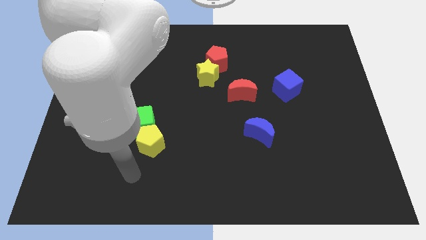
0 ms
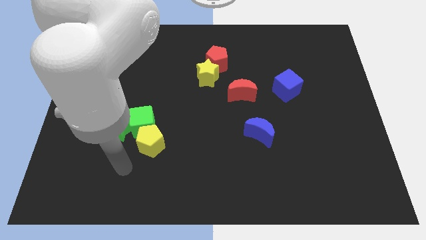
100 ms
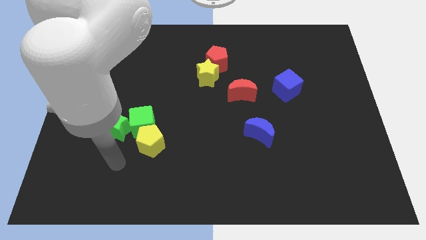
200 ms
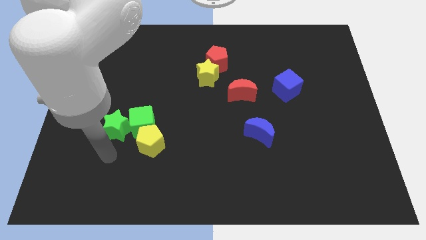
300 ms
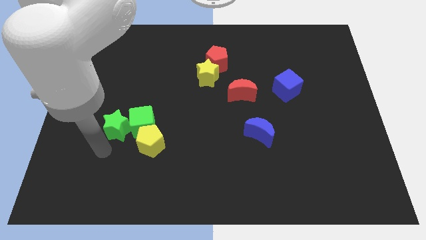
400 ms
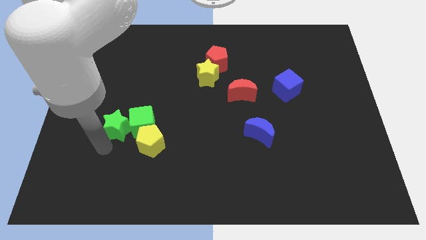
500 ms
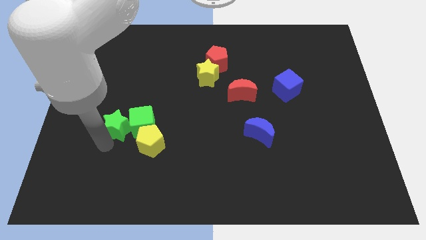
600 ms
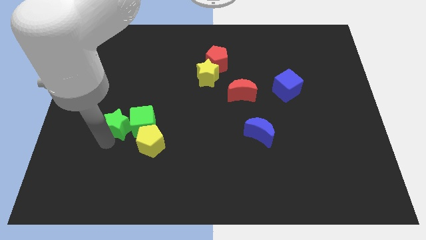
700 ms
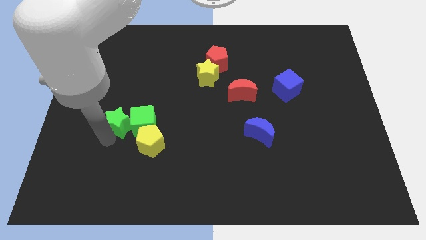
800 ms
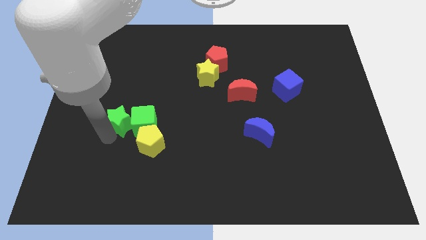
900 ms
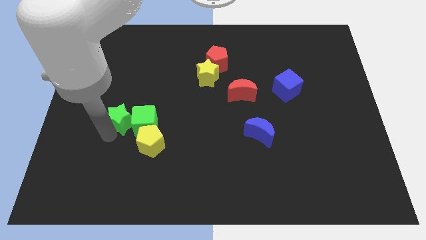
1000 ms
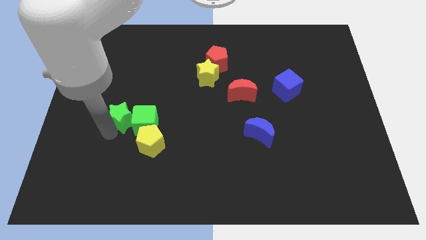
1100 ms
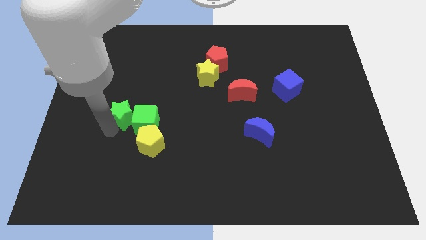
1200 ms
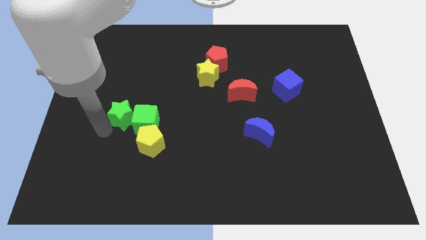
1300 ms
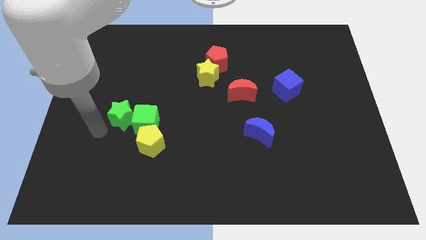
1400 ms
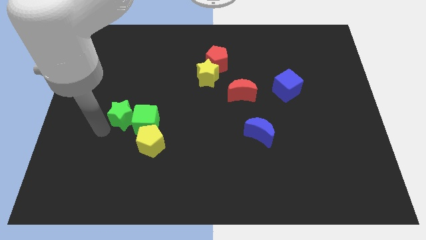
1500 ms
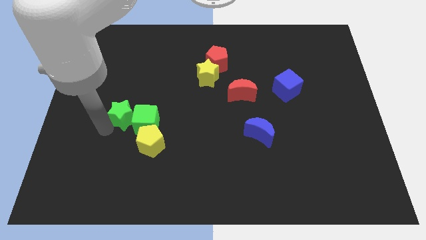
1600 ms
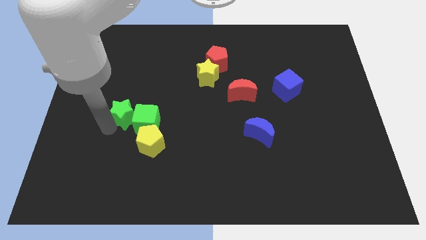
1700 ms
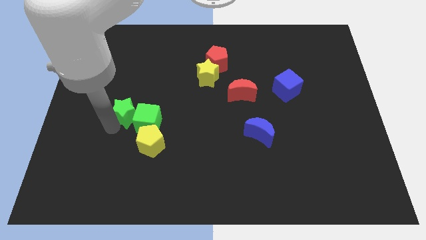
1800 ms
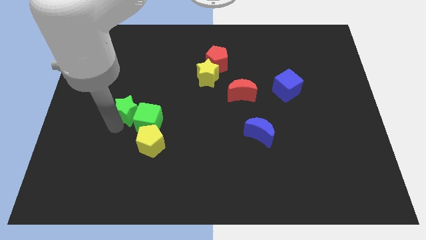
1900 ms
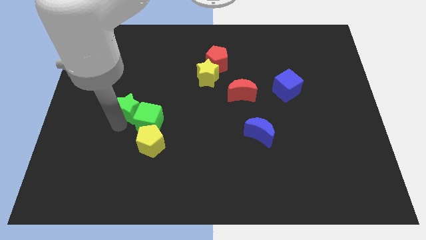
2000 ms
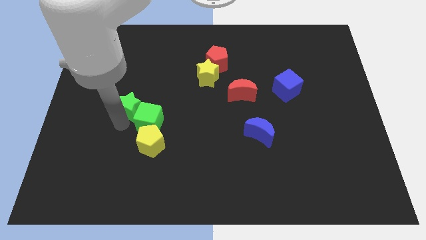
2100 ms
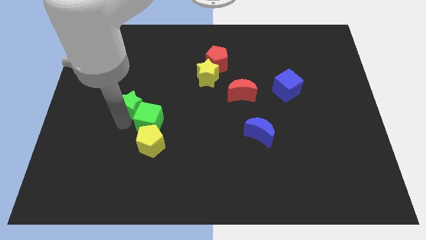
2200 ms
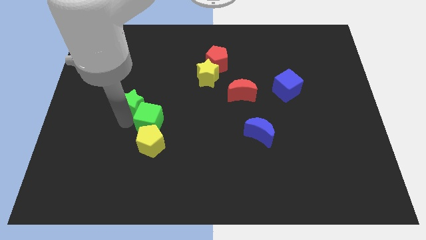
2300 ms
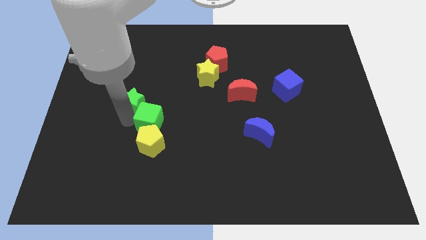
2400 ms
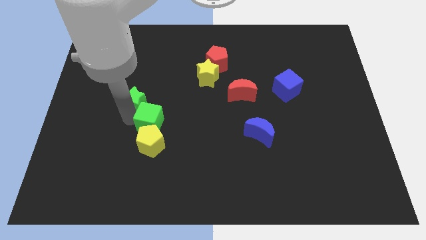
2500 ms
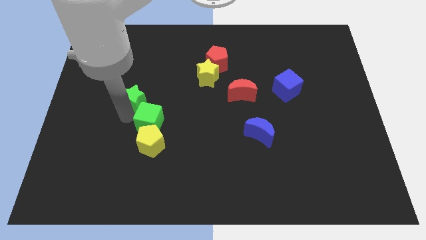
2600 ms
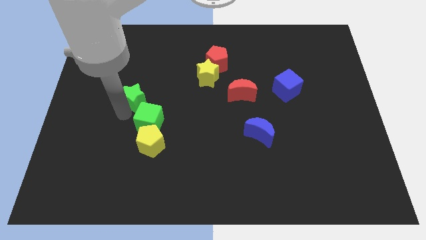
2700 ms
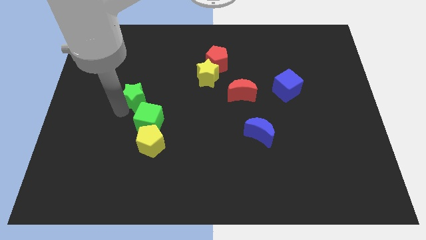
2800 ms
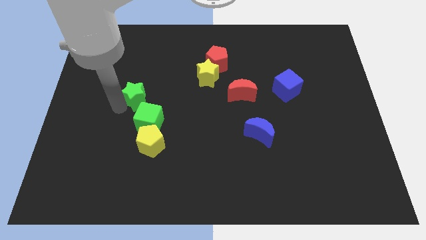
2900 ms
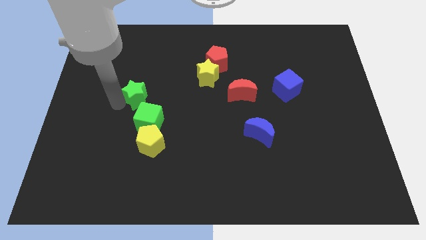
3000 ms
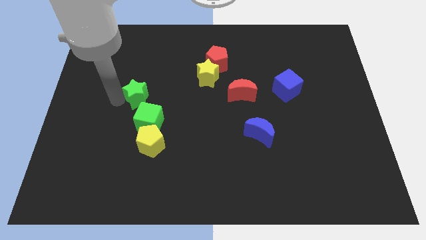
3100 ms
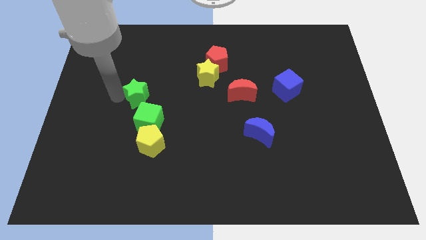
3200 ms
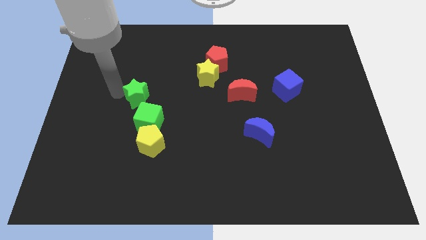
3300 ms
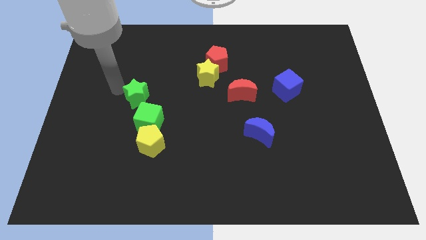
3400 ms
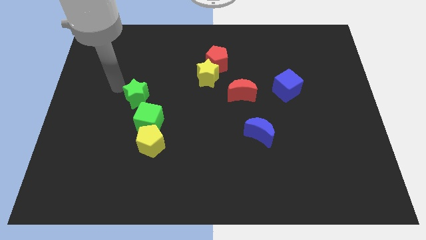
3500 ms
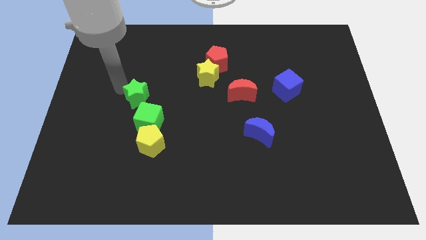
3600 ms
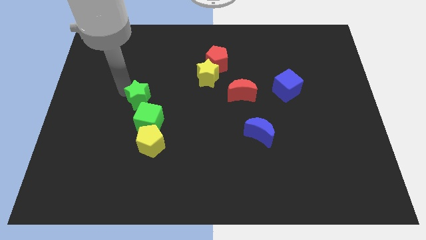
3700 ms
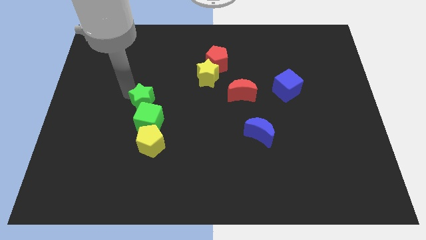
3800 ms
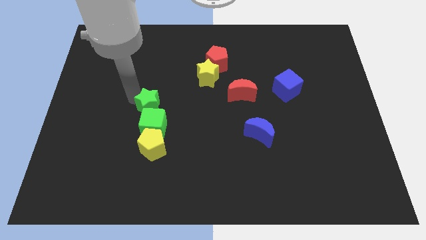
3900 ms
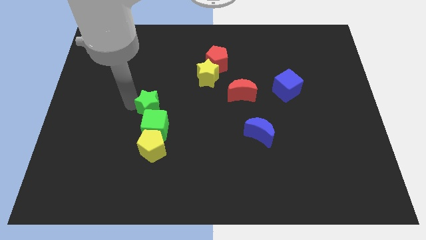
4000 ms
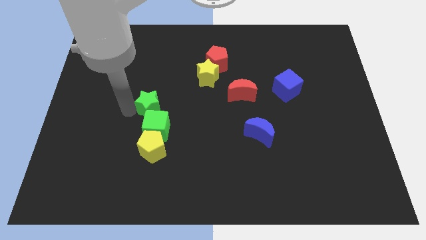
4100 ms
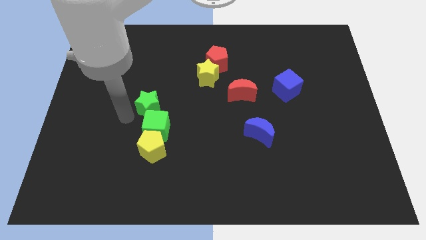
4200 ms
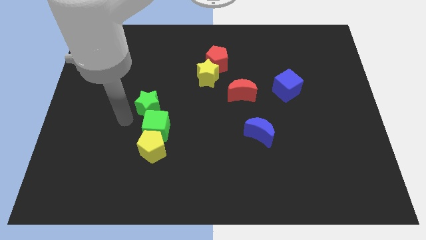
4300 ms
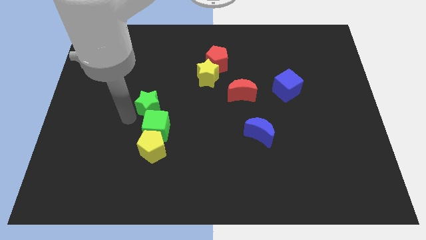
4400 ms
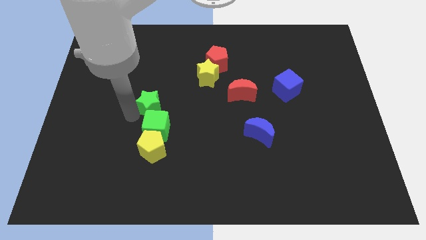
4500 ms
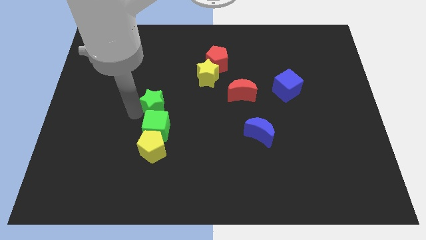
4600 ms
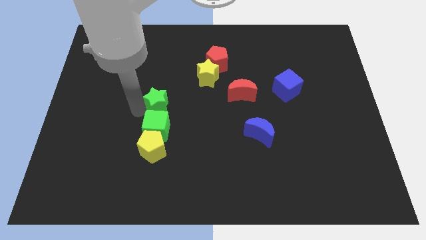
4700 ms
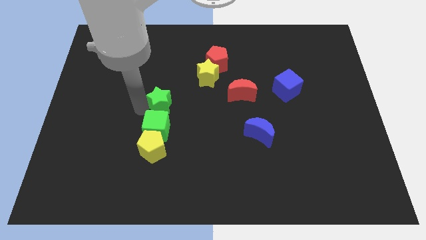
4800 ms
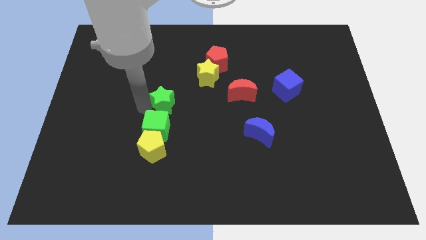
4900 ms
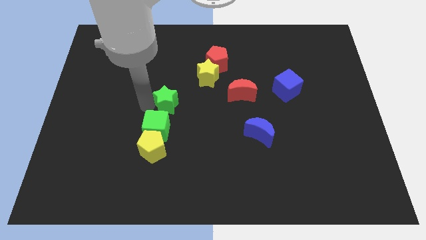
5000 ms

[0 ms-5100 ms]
move the green star to the bottom left of the yellow star

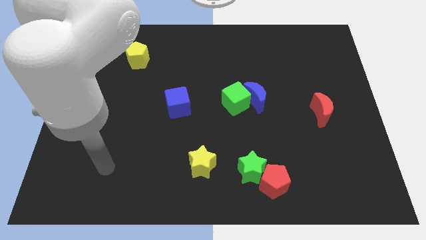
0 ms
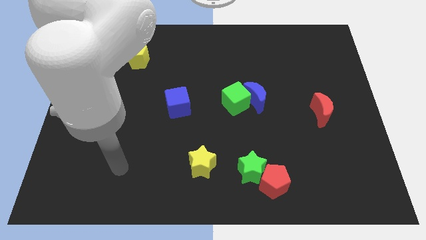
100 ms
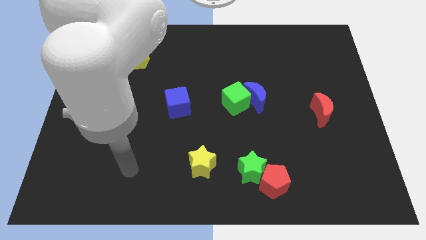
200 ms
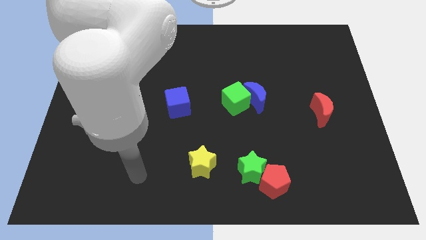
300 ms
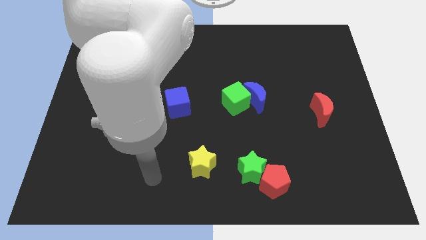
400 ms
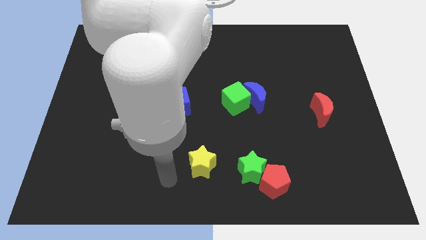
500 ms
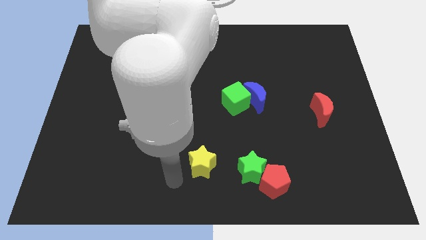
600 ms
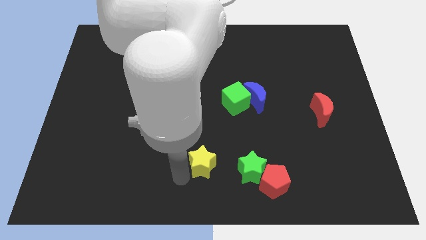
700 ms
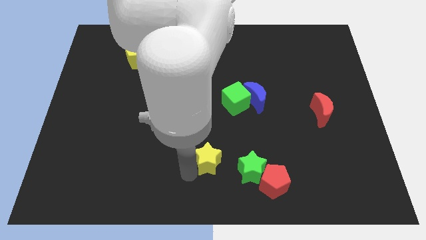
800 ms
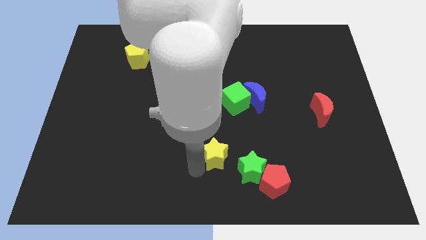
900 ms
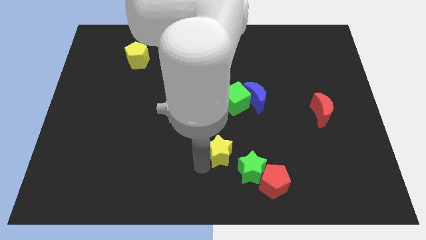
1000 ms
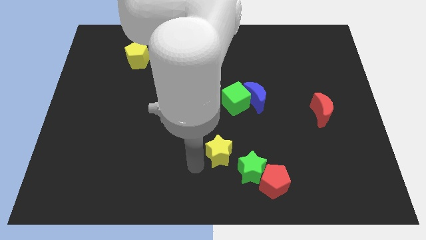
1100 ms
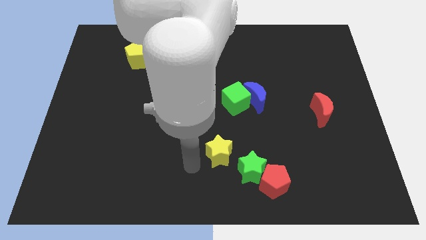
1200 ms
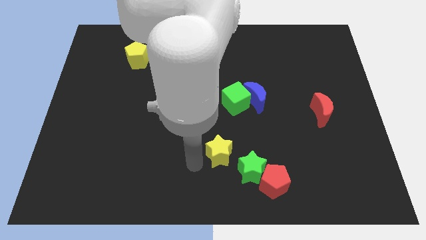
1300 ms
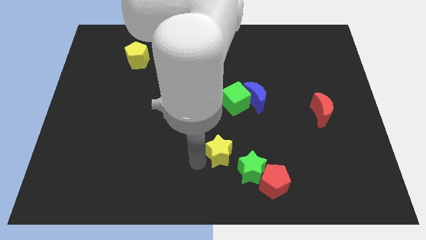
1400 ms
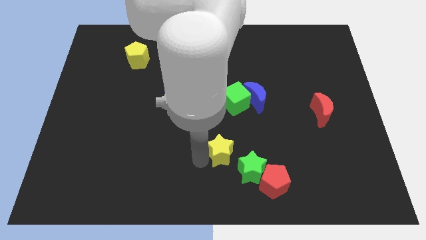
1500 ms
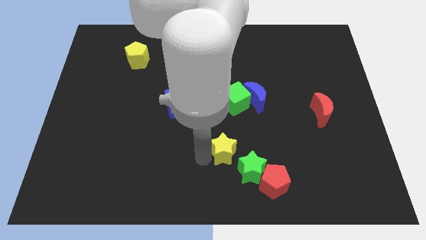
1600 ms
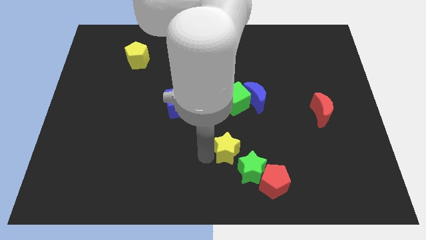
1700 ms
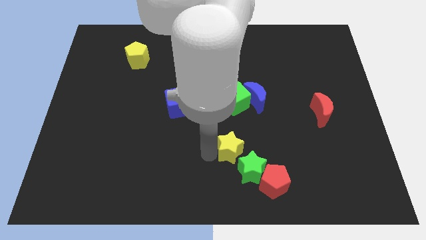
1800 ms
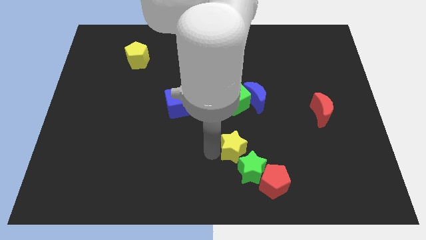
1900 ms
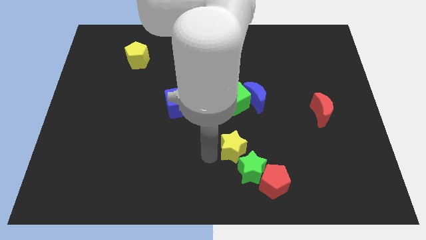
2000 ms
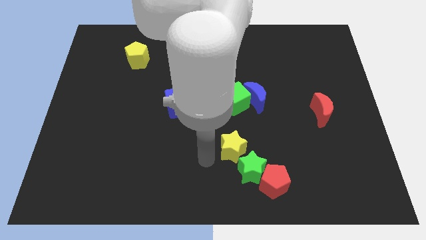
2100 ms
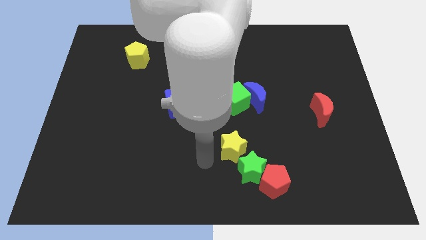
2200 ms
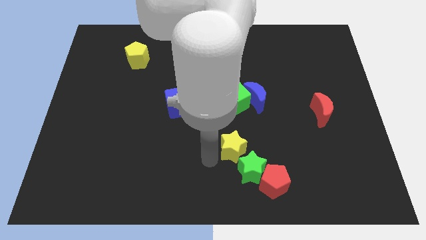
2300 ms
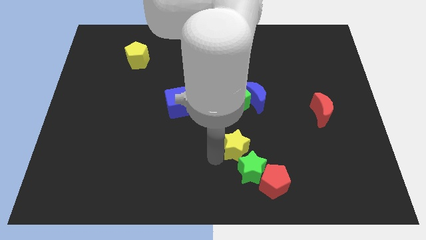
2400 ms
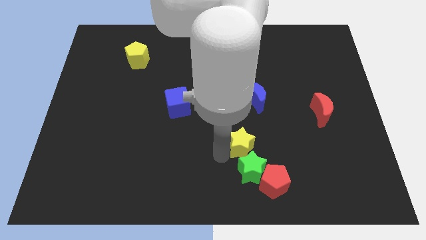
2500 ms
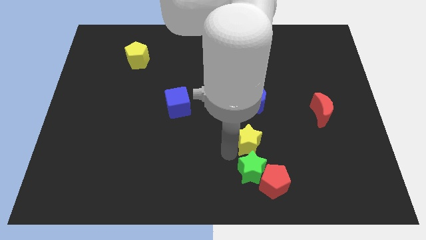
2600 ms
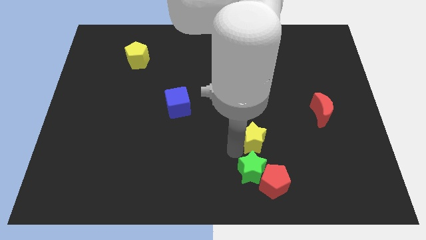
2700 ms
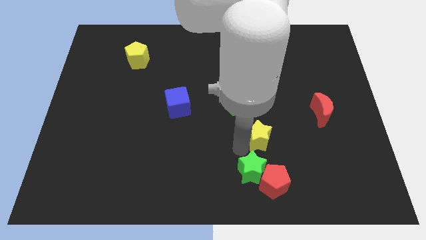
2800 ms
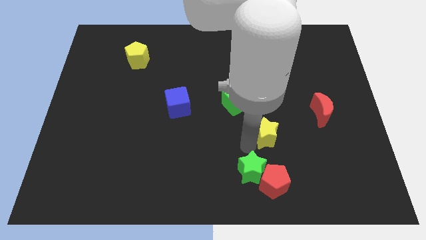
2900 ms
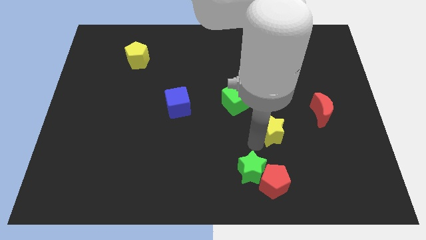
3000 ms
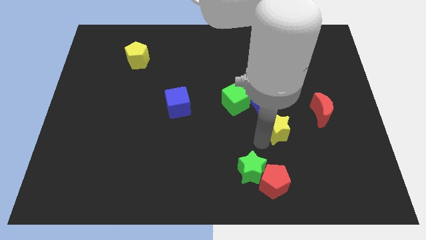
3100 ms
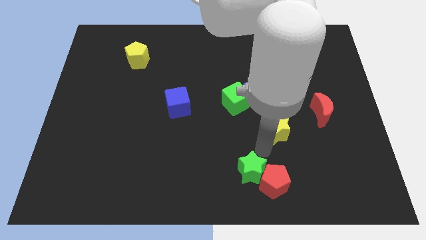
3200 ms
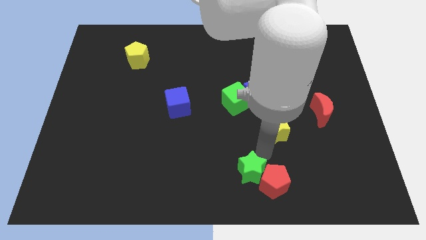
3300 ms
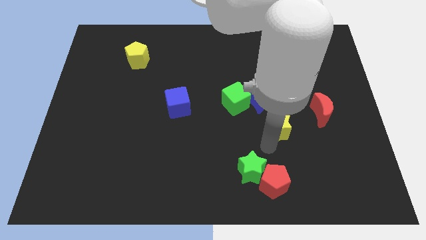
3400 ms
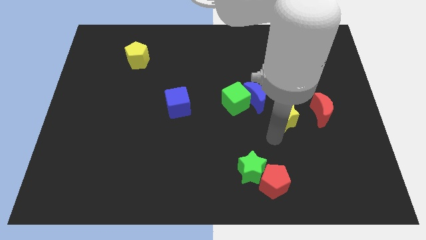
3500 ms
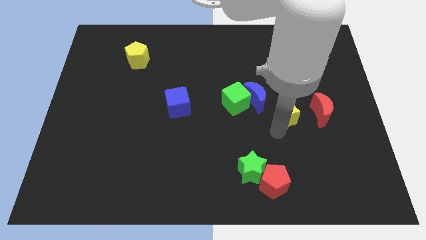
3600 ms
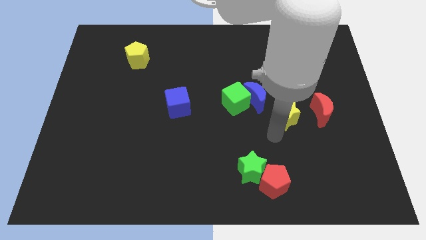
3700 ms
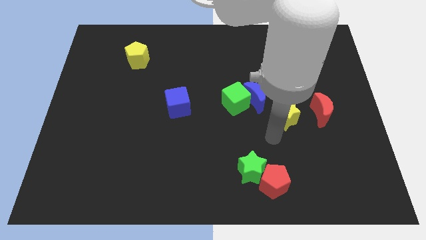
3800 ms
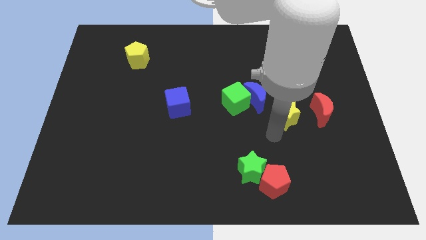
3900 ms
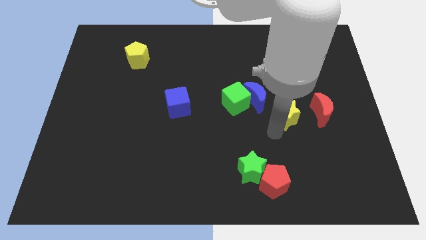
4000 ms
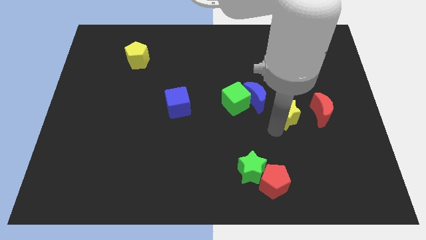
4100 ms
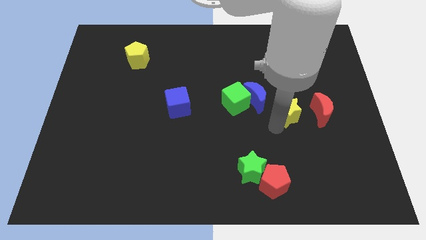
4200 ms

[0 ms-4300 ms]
slide the yellow star just right of the blue moon
